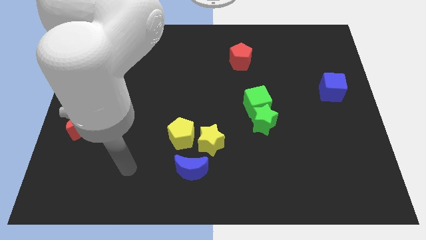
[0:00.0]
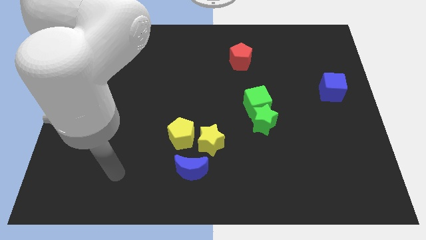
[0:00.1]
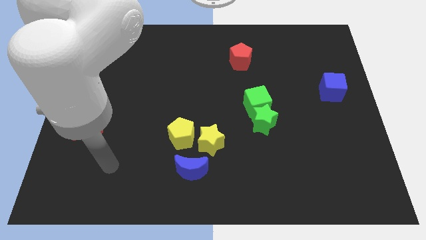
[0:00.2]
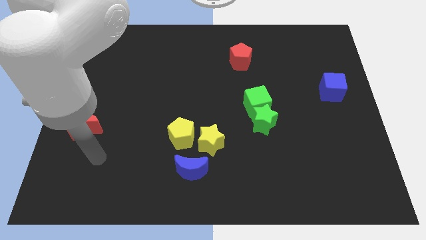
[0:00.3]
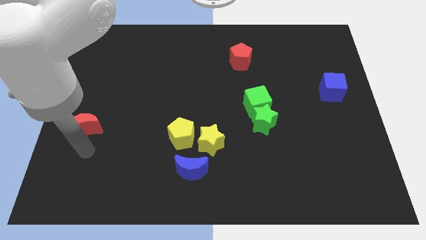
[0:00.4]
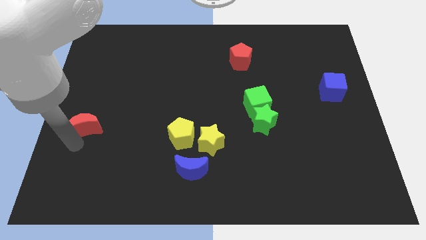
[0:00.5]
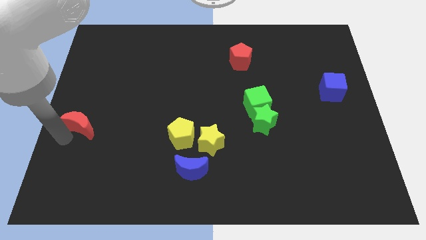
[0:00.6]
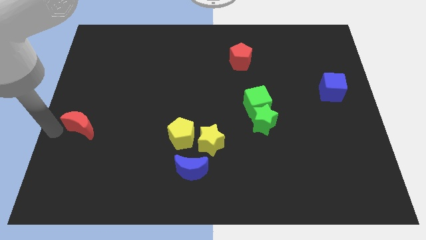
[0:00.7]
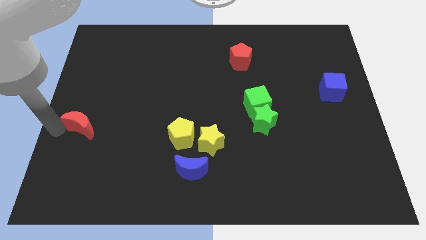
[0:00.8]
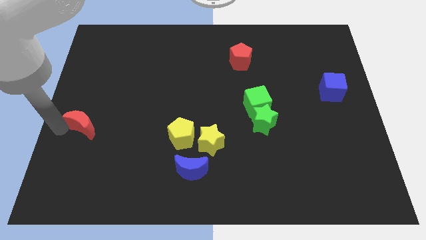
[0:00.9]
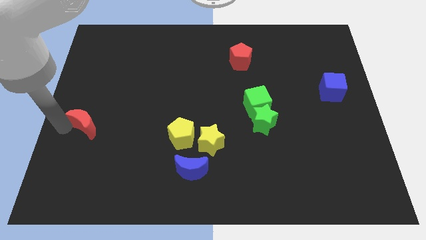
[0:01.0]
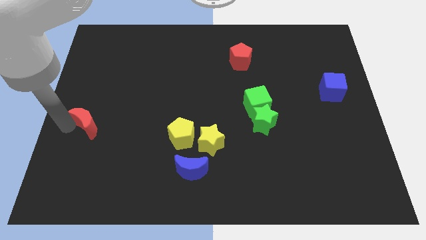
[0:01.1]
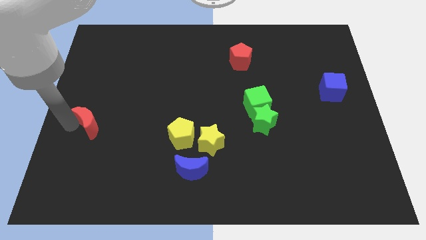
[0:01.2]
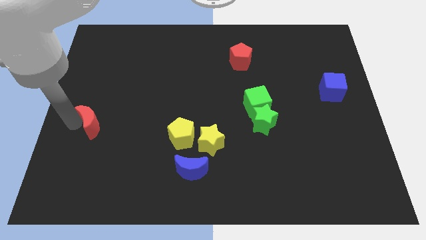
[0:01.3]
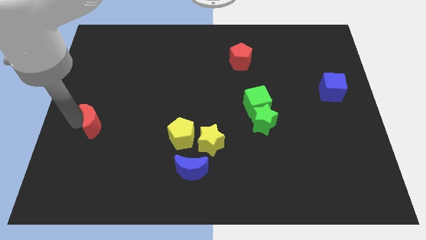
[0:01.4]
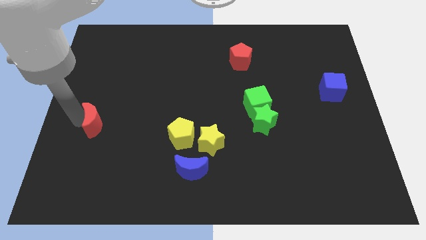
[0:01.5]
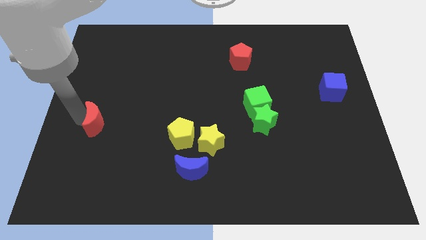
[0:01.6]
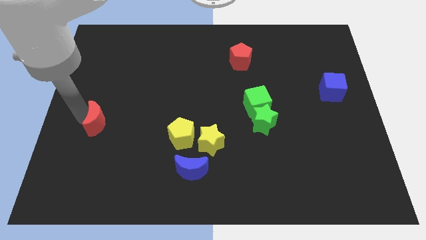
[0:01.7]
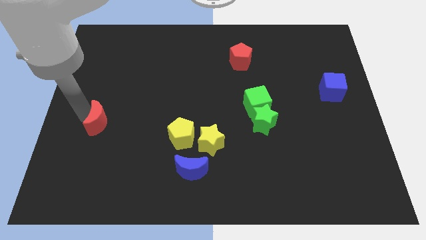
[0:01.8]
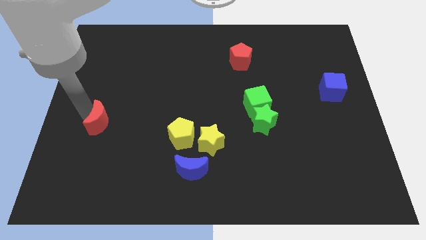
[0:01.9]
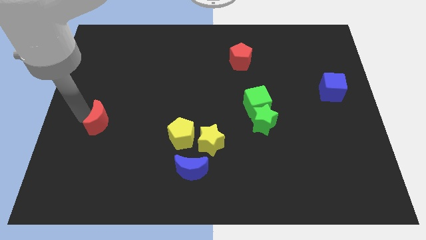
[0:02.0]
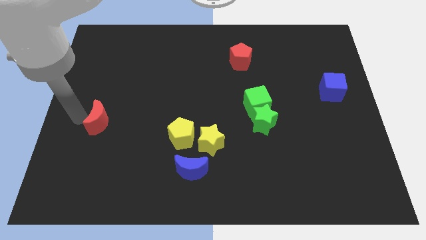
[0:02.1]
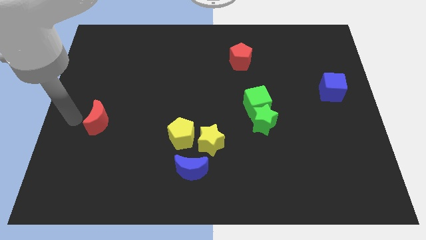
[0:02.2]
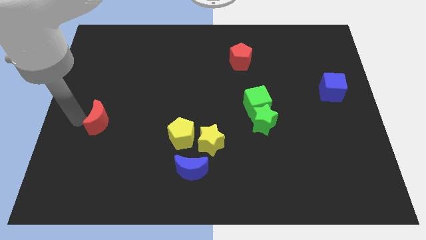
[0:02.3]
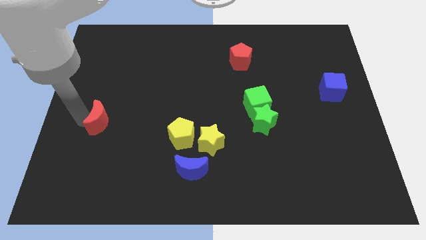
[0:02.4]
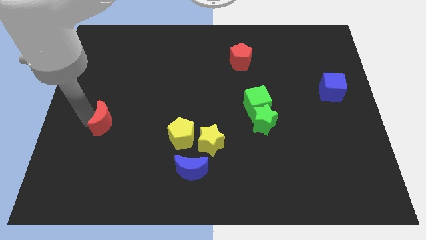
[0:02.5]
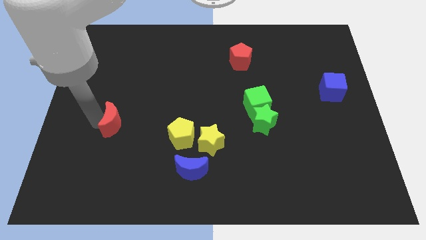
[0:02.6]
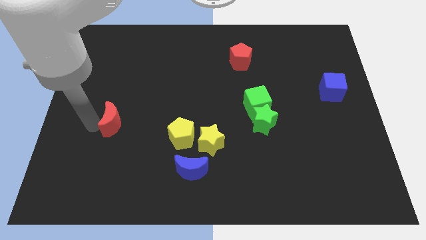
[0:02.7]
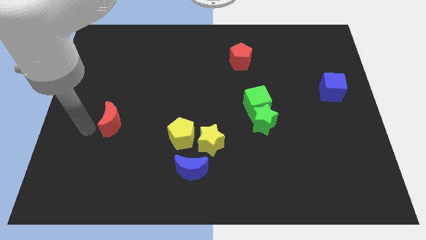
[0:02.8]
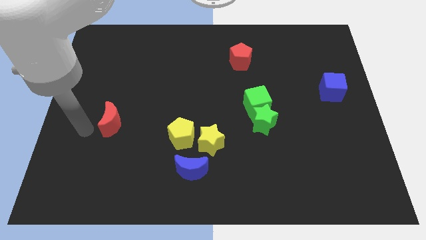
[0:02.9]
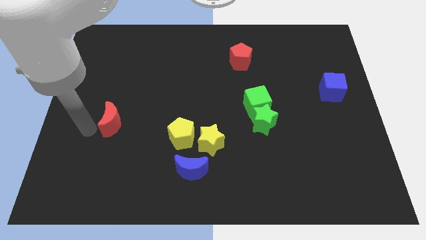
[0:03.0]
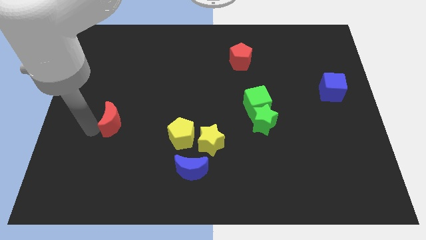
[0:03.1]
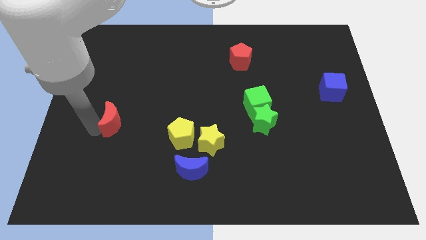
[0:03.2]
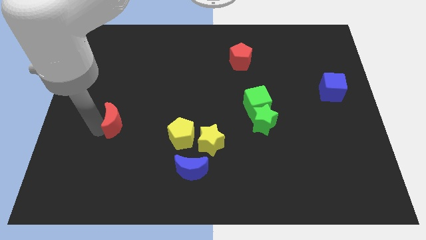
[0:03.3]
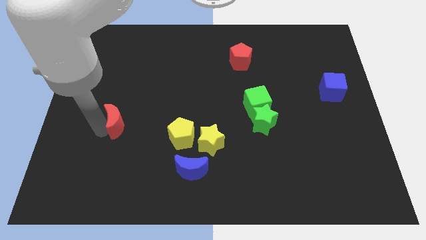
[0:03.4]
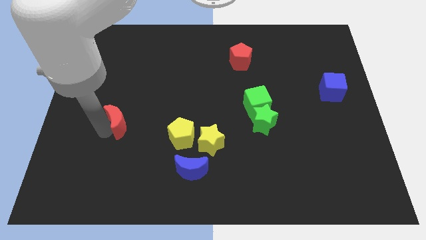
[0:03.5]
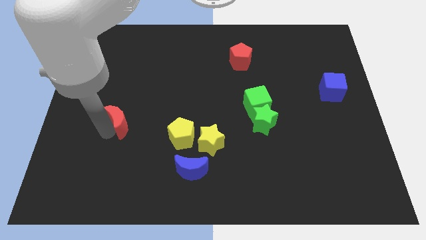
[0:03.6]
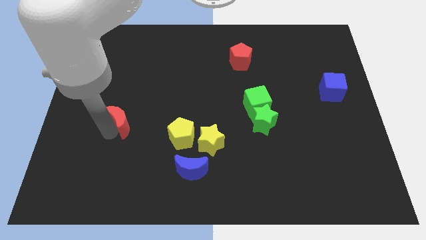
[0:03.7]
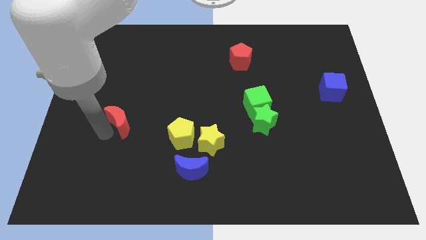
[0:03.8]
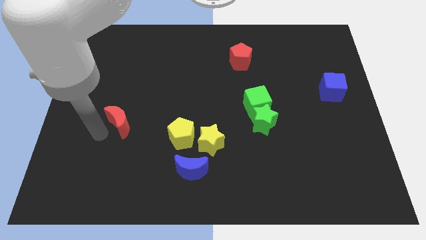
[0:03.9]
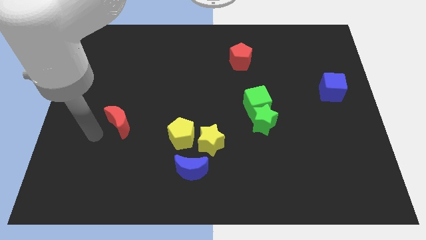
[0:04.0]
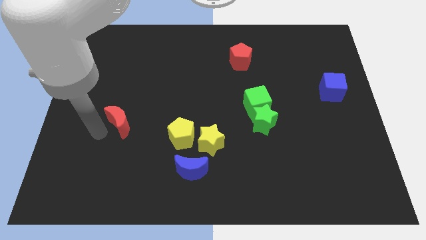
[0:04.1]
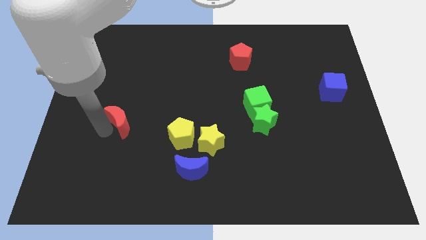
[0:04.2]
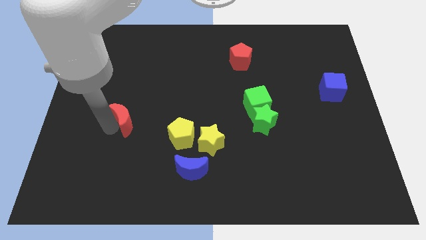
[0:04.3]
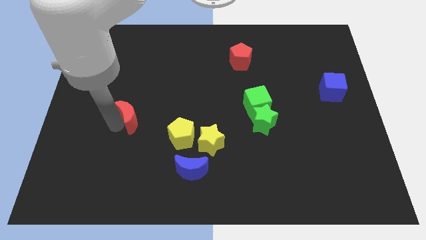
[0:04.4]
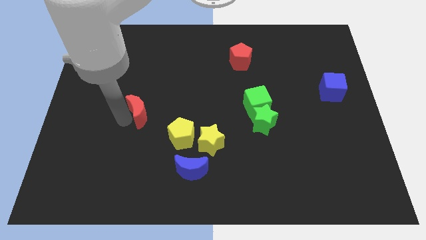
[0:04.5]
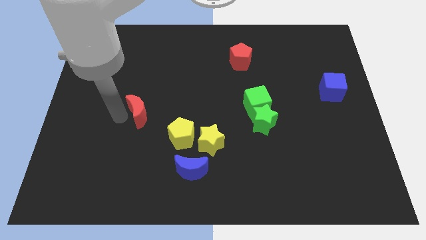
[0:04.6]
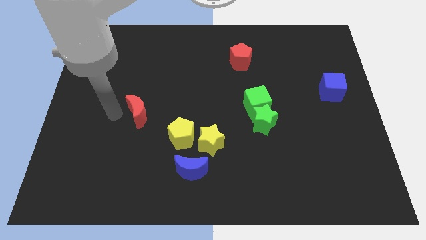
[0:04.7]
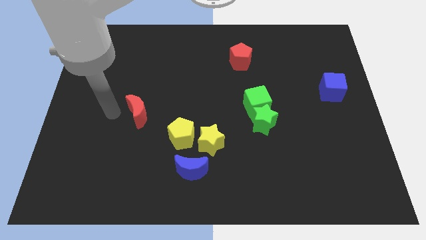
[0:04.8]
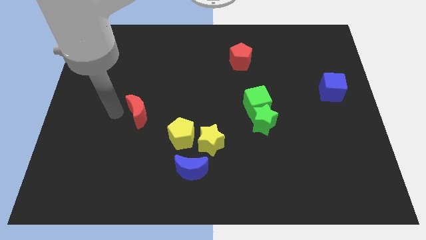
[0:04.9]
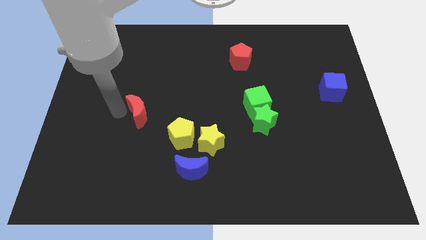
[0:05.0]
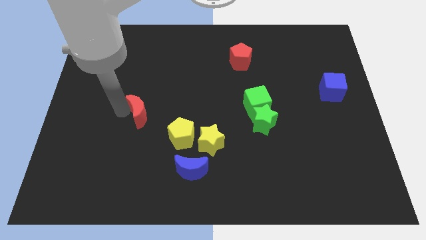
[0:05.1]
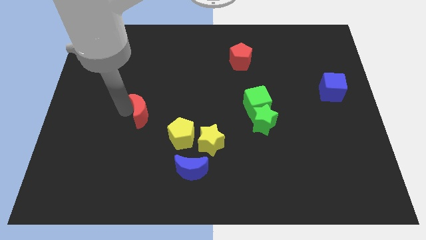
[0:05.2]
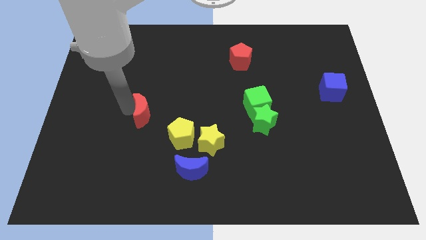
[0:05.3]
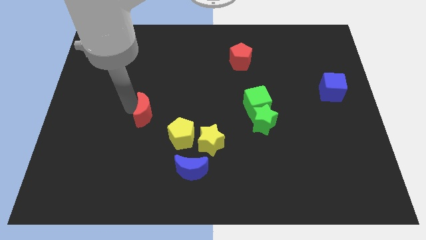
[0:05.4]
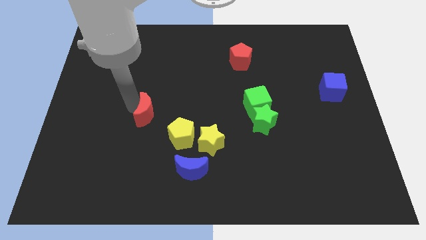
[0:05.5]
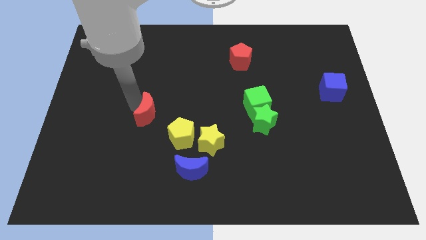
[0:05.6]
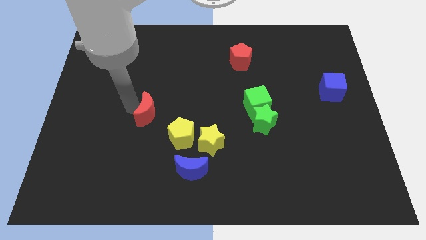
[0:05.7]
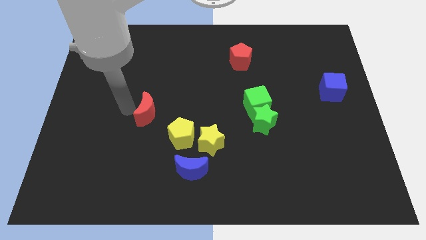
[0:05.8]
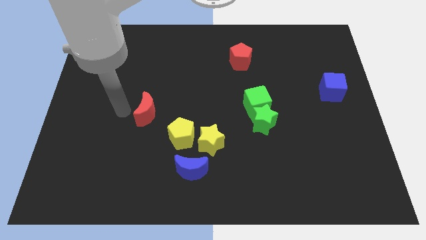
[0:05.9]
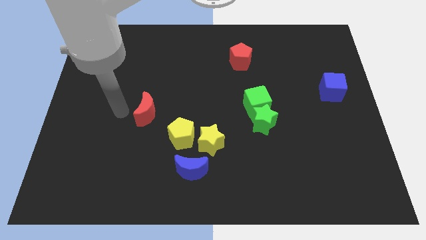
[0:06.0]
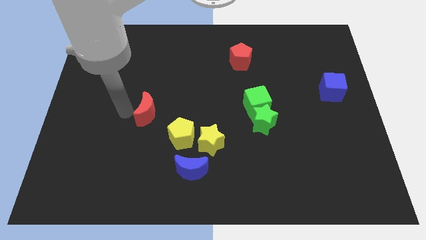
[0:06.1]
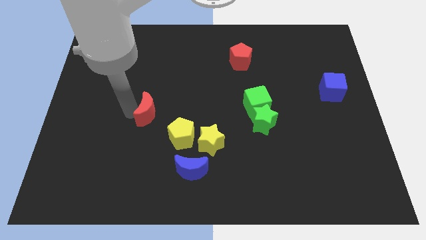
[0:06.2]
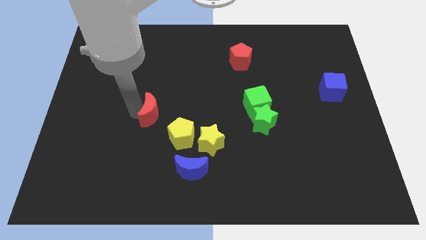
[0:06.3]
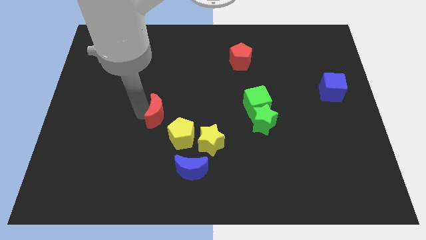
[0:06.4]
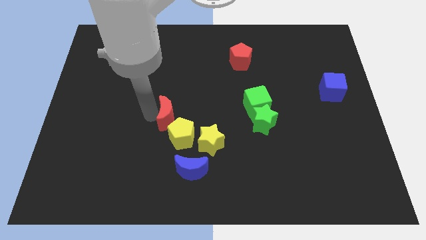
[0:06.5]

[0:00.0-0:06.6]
move the red moon to the center of the board
